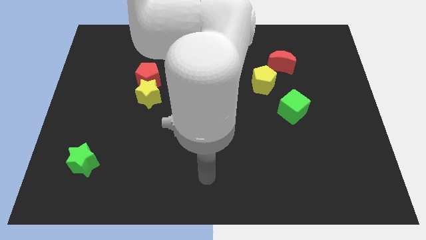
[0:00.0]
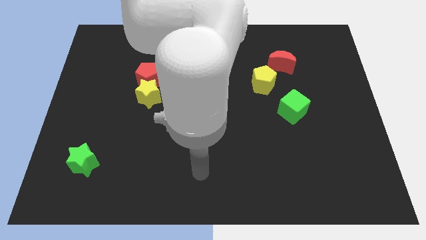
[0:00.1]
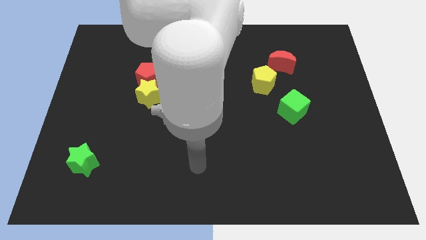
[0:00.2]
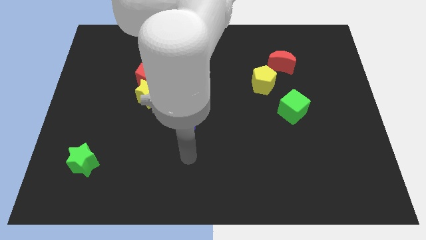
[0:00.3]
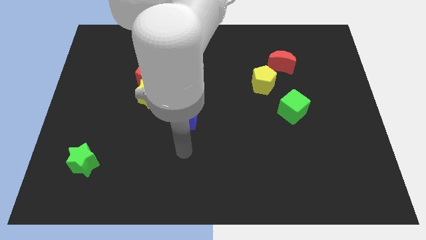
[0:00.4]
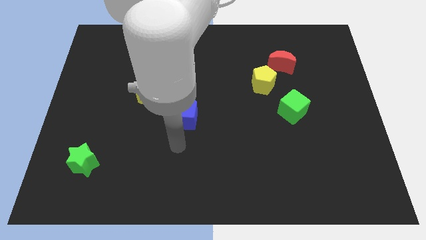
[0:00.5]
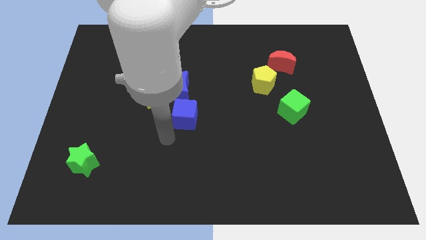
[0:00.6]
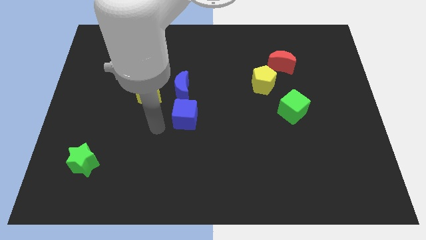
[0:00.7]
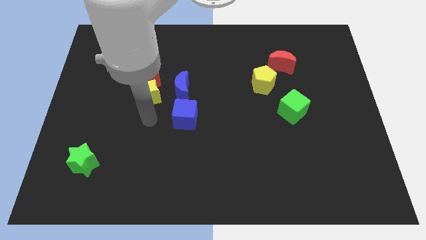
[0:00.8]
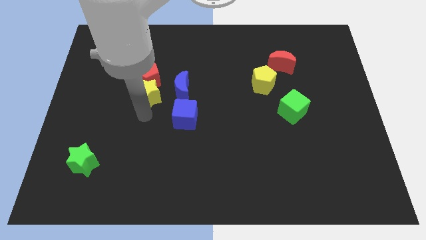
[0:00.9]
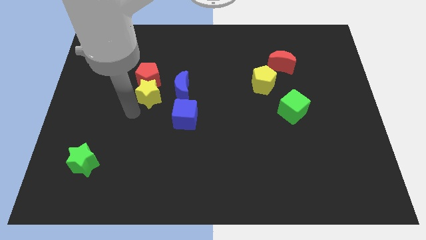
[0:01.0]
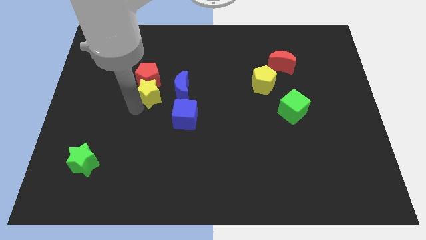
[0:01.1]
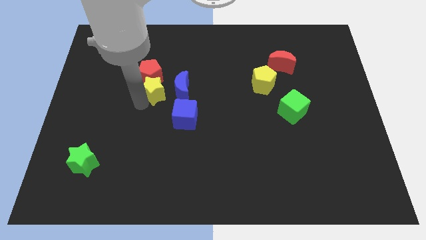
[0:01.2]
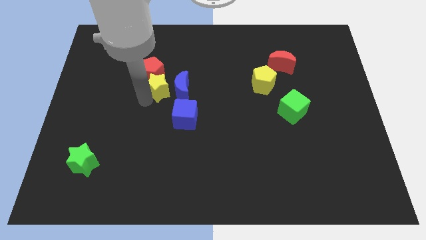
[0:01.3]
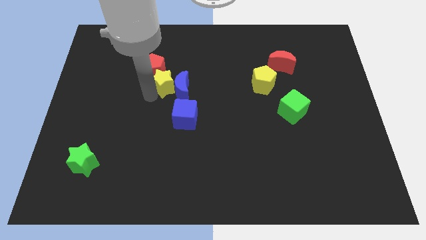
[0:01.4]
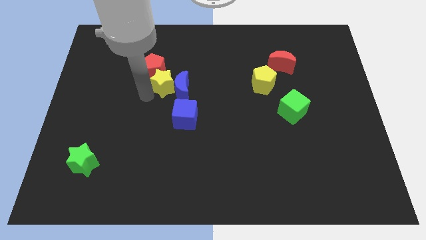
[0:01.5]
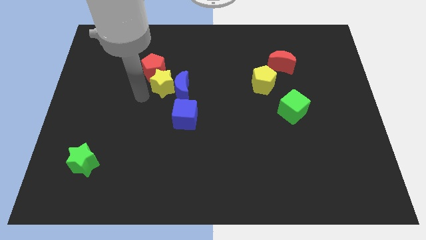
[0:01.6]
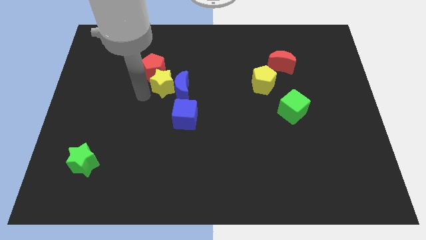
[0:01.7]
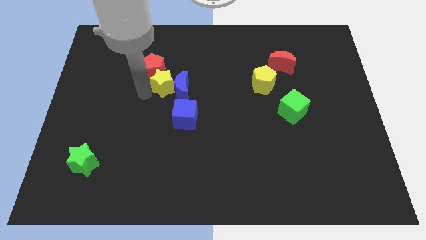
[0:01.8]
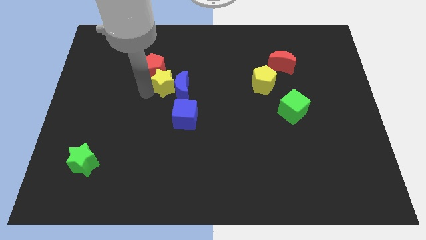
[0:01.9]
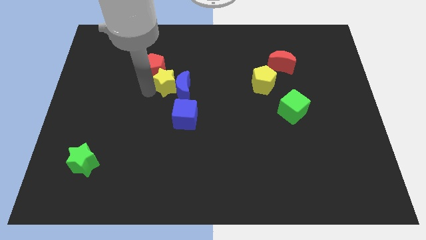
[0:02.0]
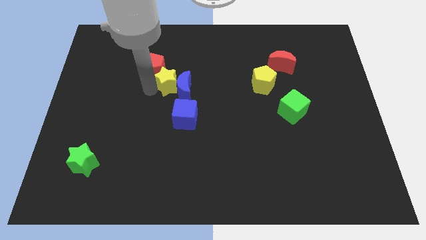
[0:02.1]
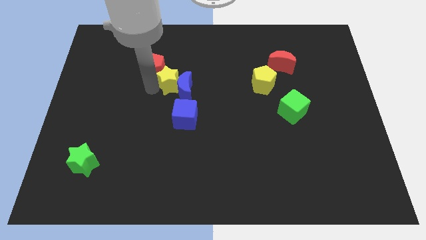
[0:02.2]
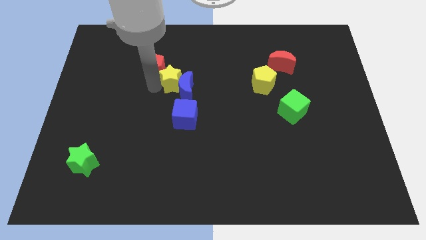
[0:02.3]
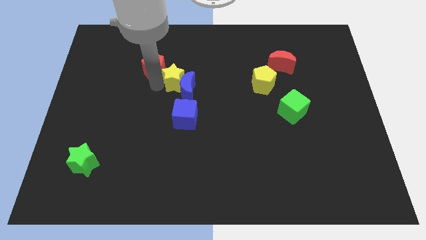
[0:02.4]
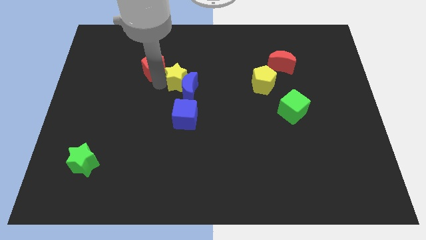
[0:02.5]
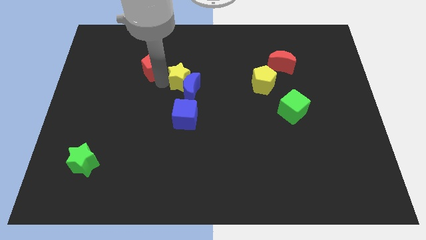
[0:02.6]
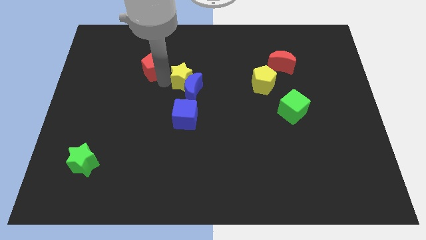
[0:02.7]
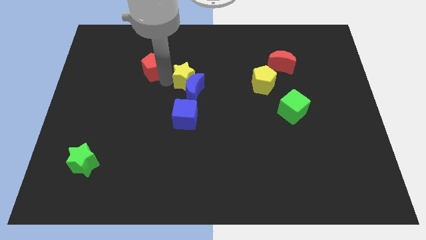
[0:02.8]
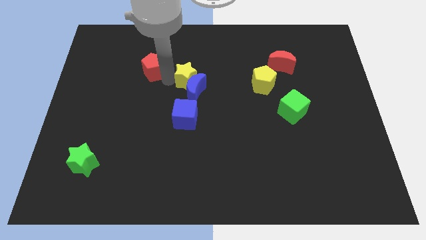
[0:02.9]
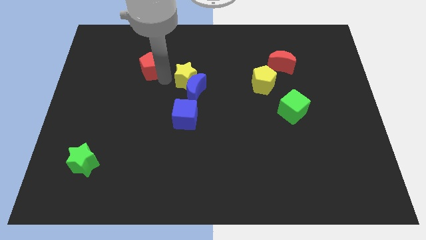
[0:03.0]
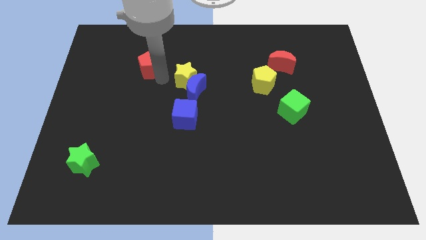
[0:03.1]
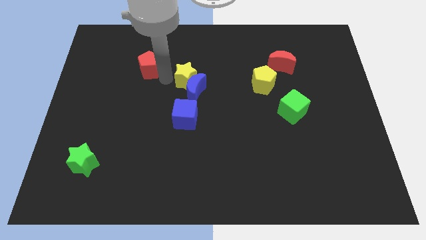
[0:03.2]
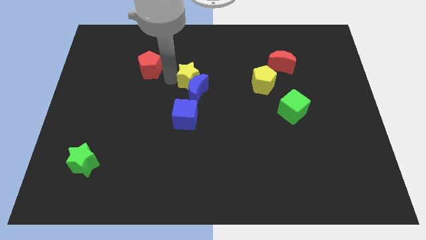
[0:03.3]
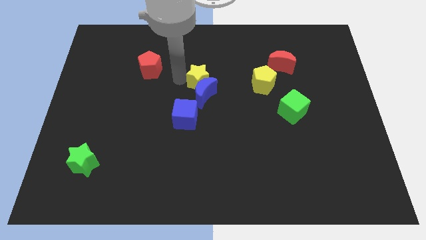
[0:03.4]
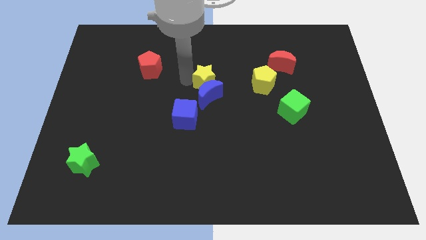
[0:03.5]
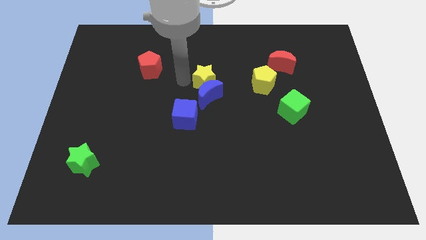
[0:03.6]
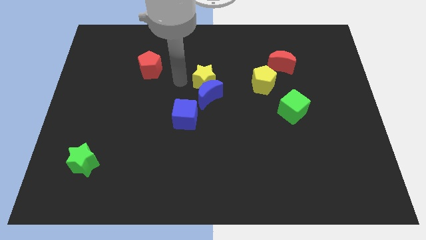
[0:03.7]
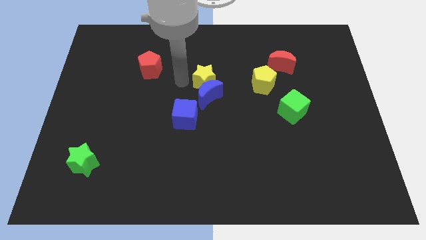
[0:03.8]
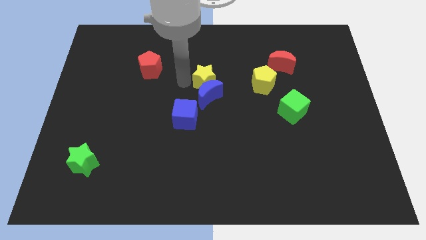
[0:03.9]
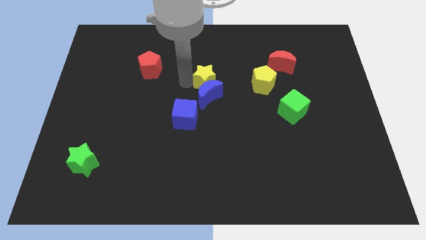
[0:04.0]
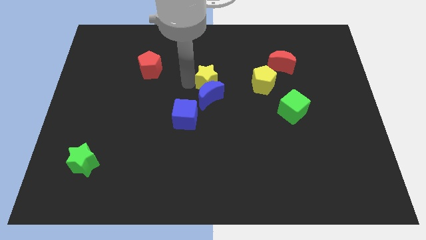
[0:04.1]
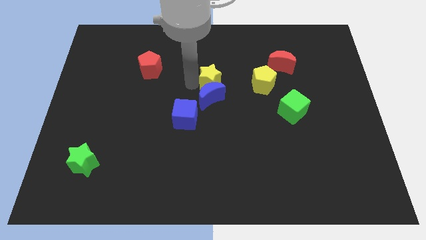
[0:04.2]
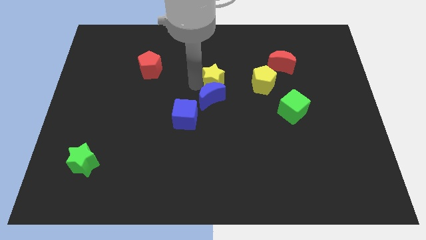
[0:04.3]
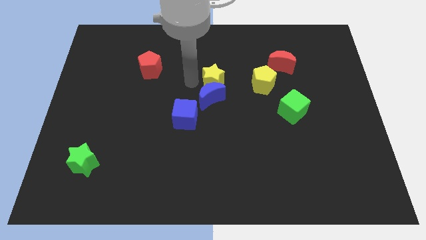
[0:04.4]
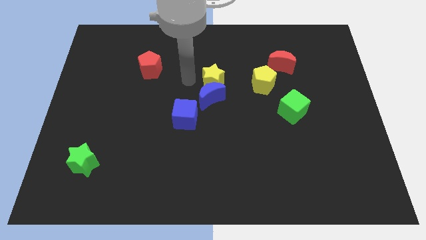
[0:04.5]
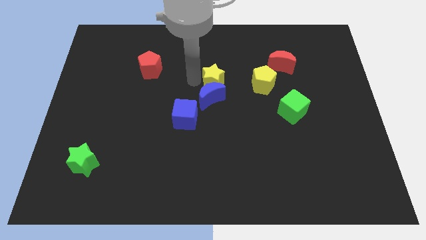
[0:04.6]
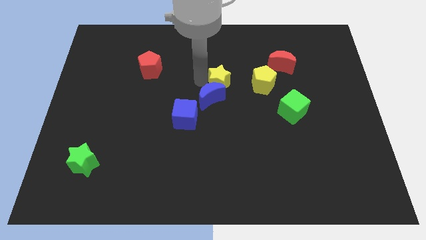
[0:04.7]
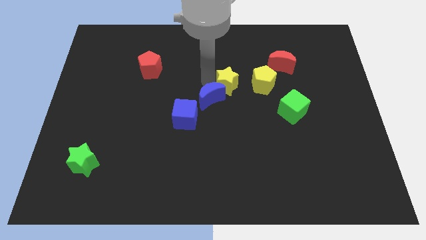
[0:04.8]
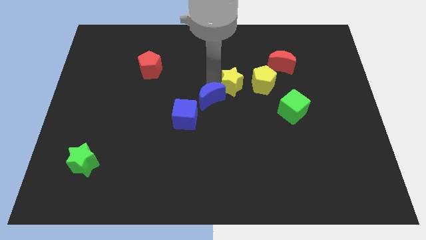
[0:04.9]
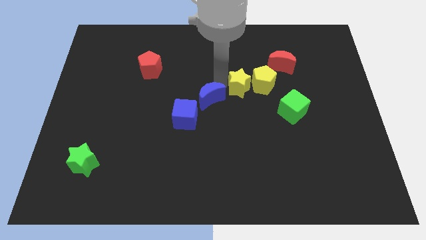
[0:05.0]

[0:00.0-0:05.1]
slide the yellow star close to the yellow pentagon

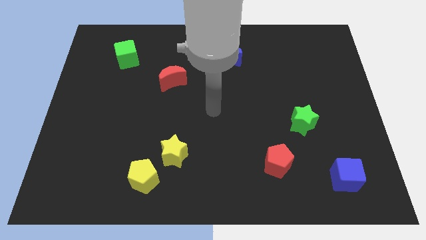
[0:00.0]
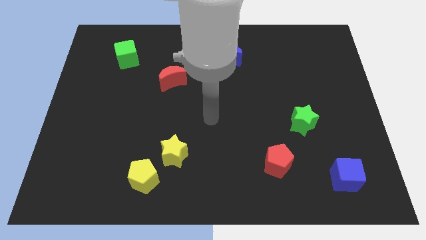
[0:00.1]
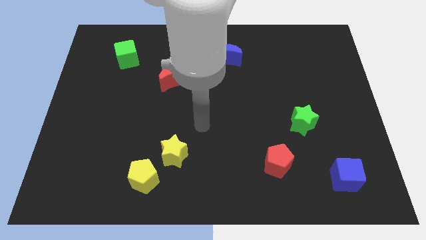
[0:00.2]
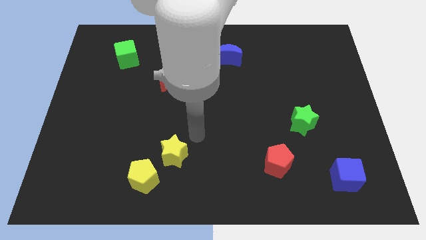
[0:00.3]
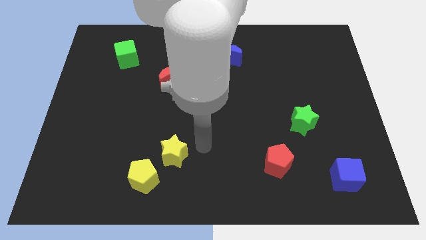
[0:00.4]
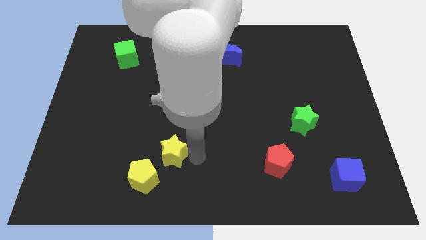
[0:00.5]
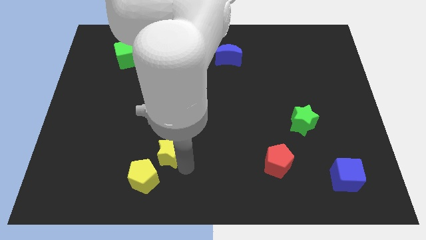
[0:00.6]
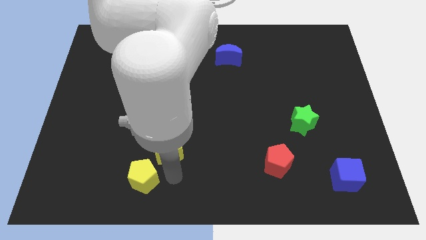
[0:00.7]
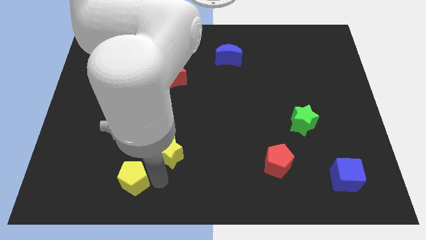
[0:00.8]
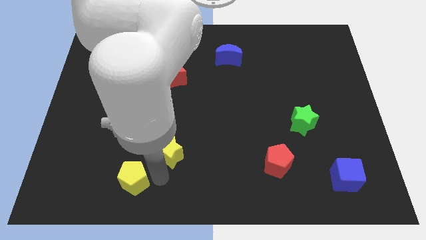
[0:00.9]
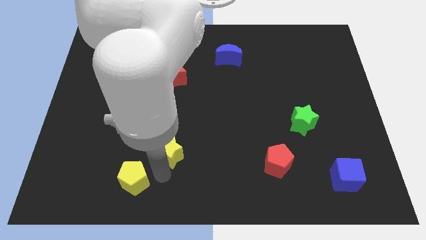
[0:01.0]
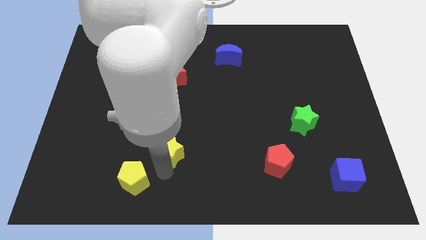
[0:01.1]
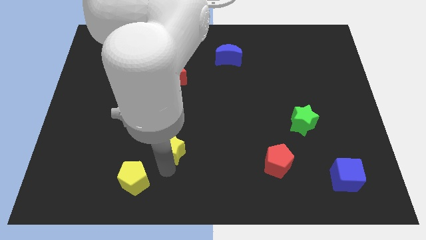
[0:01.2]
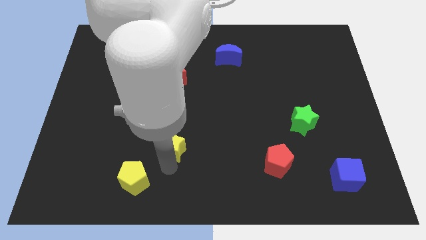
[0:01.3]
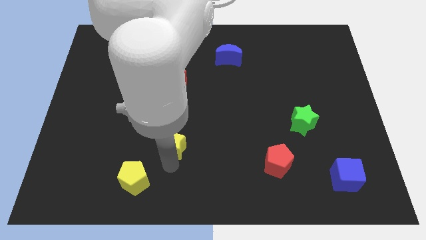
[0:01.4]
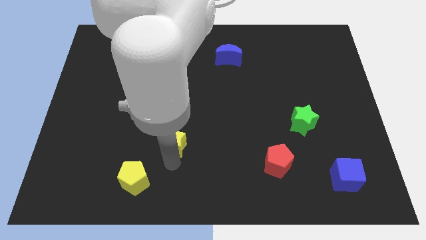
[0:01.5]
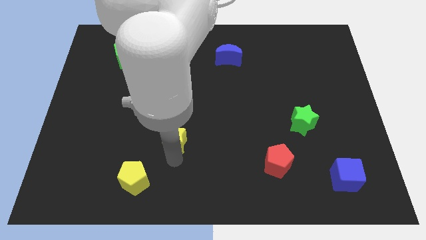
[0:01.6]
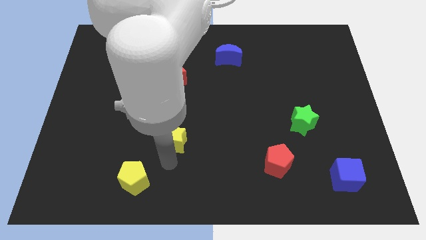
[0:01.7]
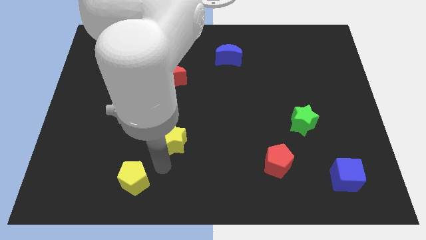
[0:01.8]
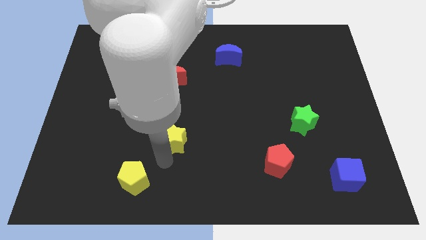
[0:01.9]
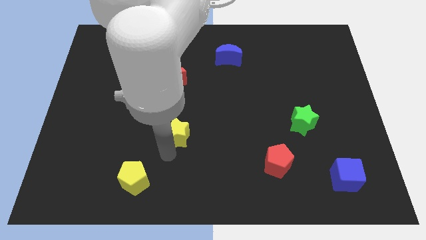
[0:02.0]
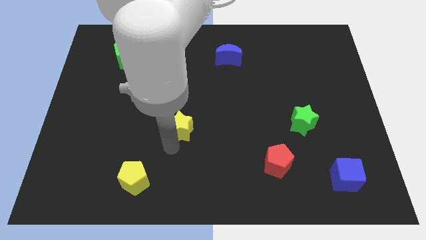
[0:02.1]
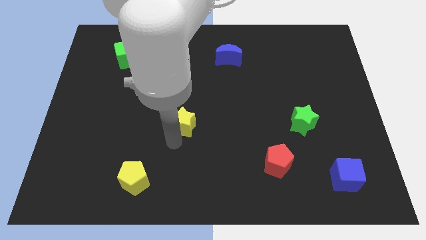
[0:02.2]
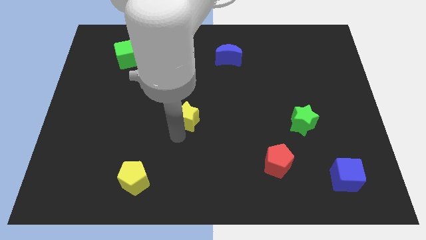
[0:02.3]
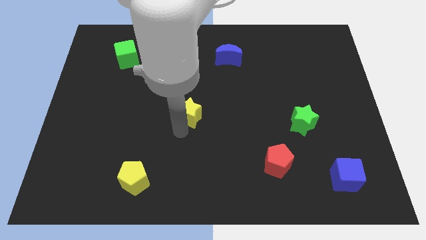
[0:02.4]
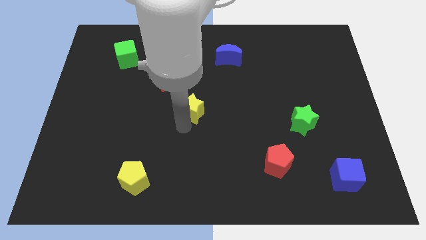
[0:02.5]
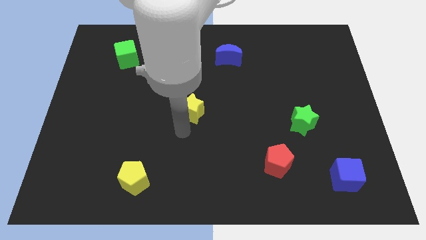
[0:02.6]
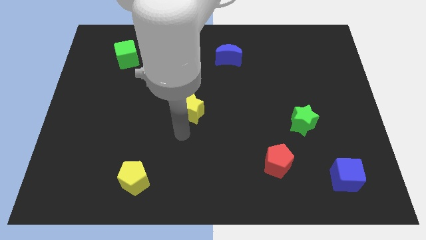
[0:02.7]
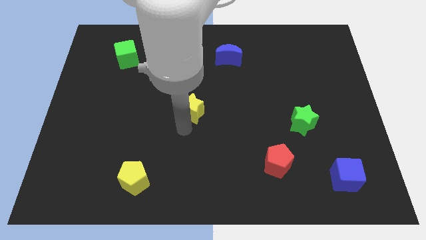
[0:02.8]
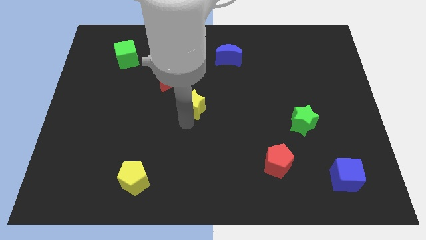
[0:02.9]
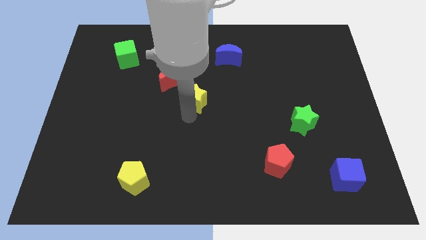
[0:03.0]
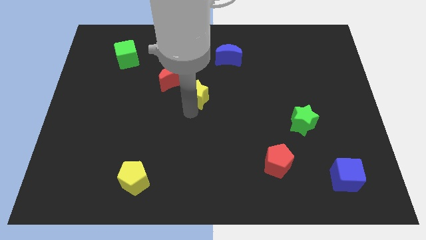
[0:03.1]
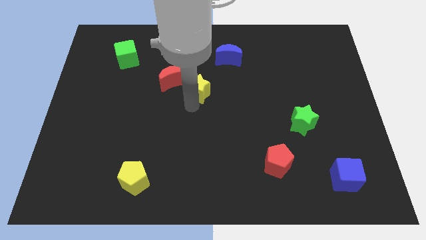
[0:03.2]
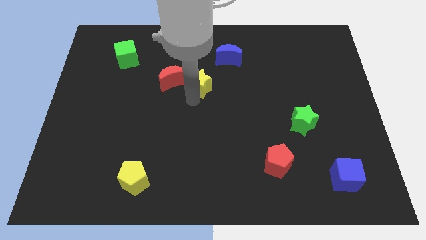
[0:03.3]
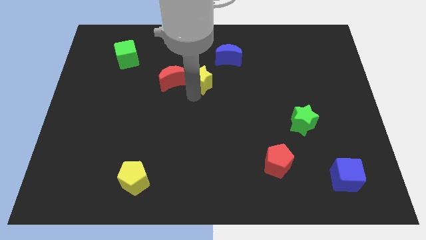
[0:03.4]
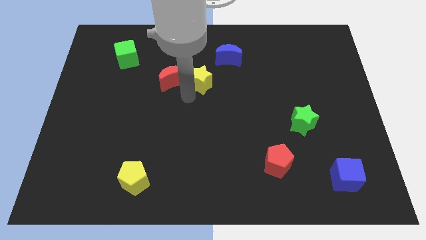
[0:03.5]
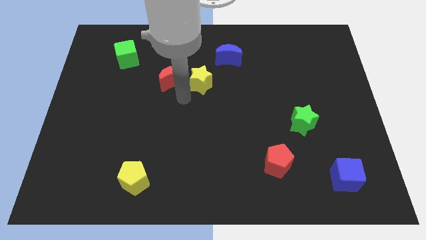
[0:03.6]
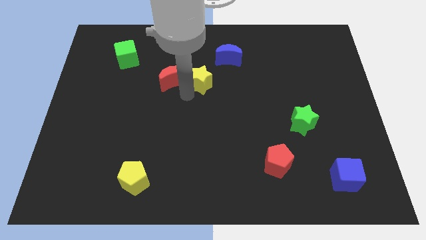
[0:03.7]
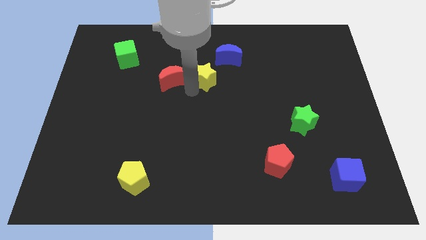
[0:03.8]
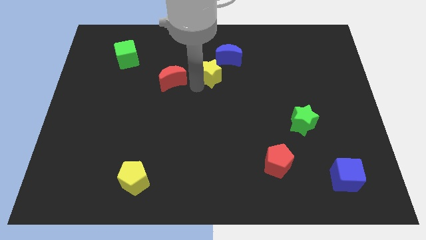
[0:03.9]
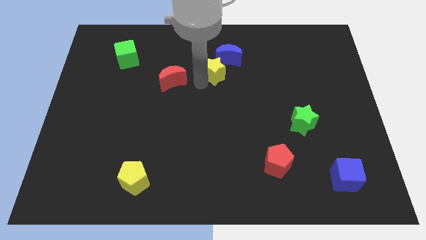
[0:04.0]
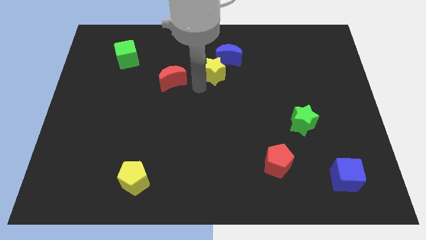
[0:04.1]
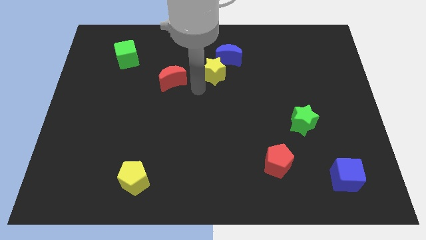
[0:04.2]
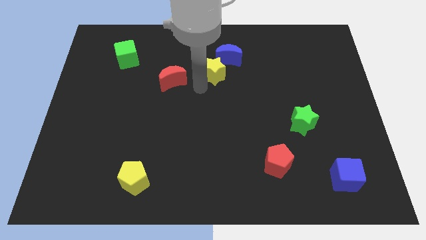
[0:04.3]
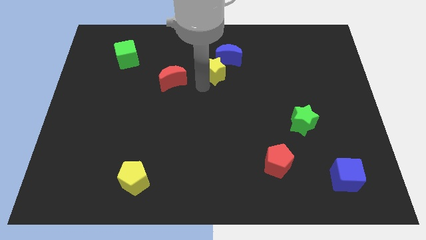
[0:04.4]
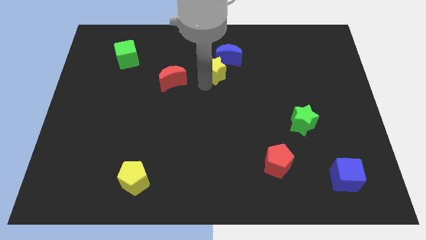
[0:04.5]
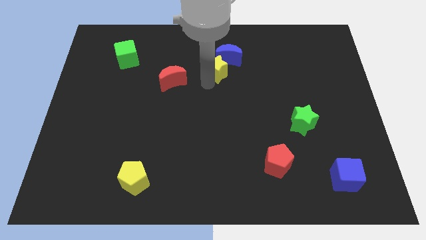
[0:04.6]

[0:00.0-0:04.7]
slide the yellow star close to the blue moon
